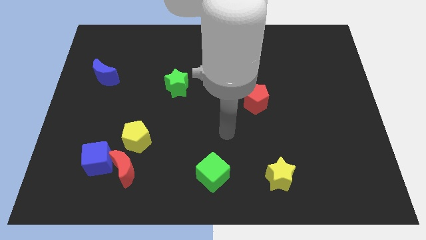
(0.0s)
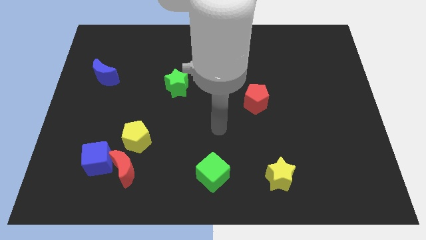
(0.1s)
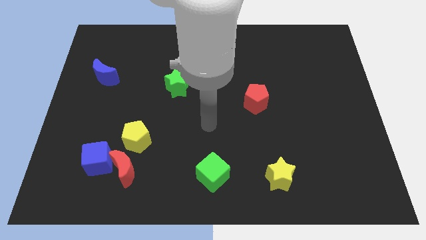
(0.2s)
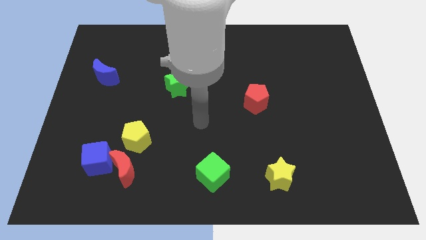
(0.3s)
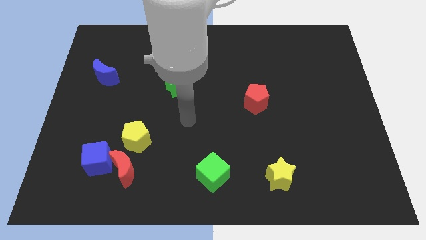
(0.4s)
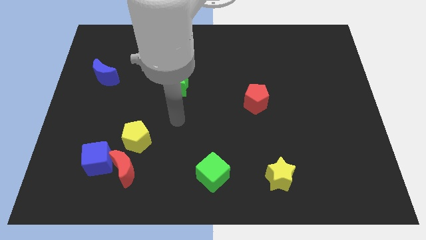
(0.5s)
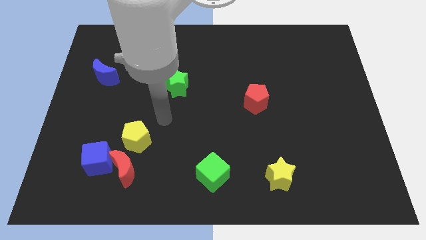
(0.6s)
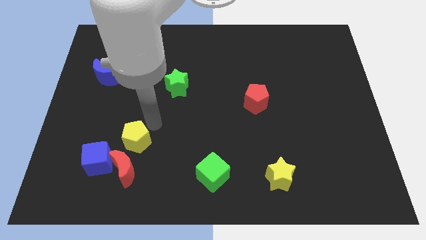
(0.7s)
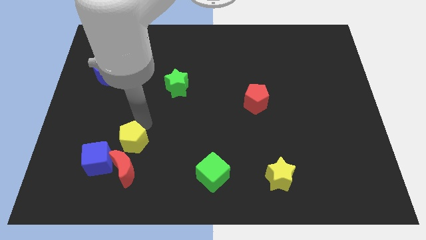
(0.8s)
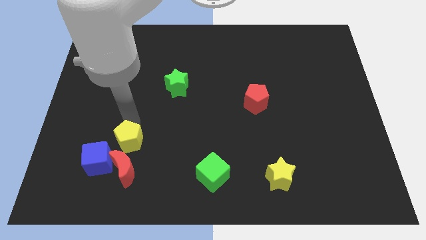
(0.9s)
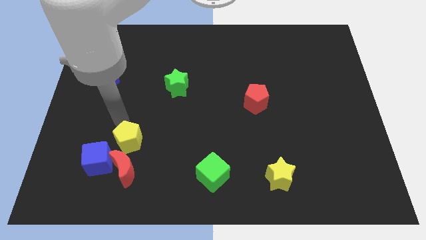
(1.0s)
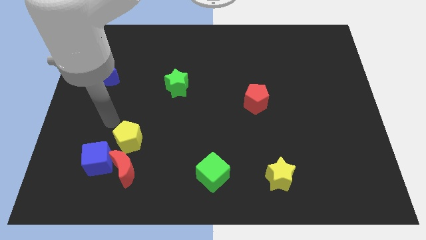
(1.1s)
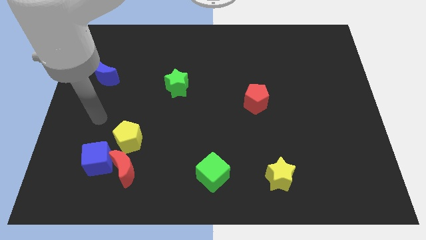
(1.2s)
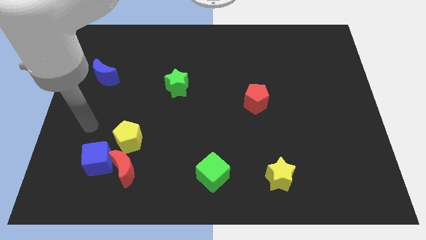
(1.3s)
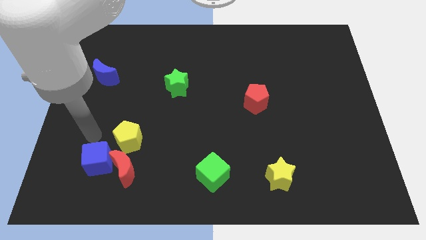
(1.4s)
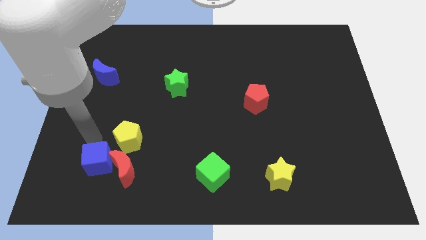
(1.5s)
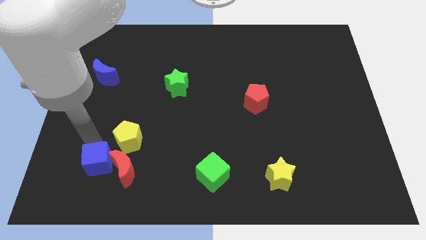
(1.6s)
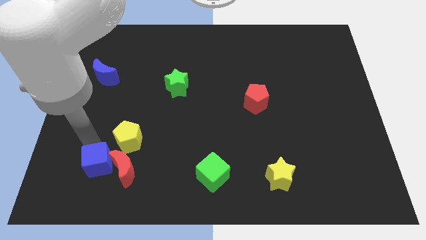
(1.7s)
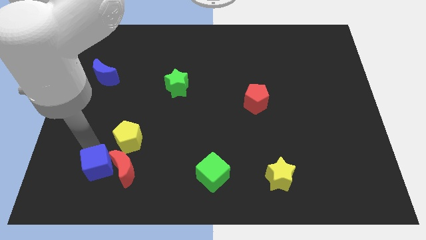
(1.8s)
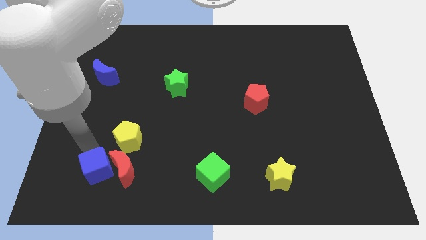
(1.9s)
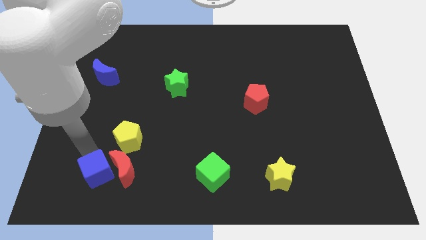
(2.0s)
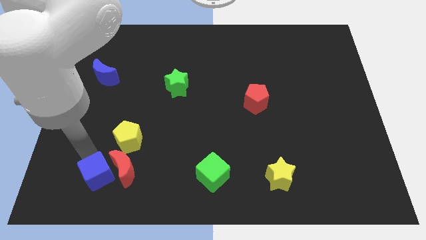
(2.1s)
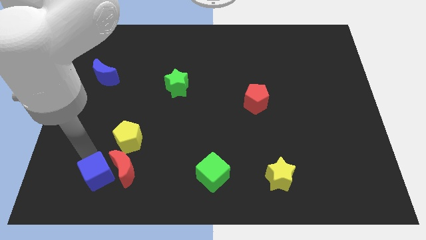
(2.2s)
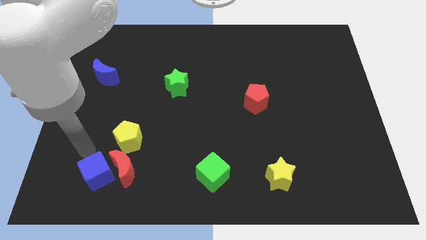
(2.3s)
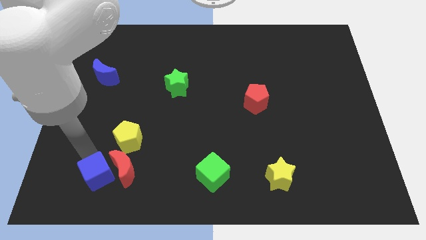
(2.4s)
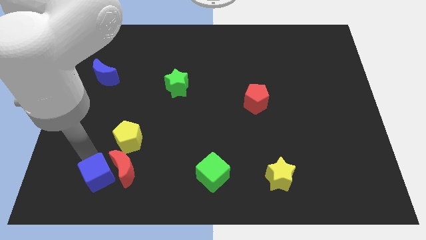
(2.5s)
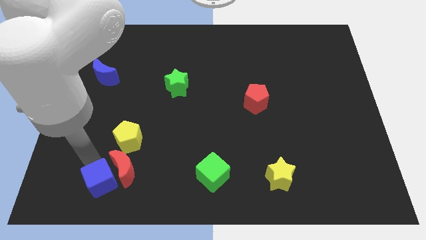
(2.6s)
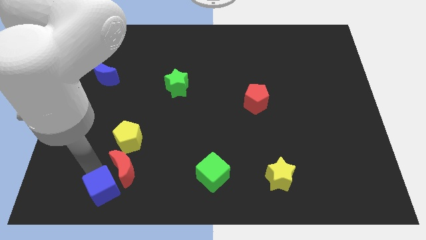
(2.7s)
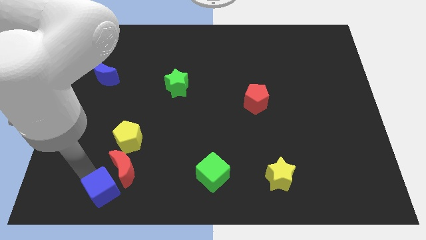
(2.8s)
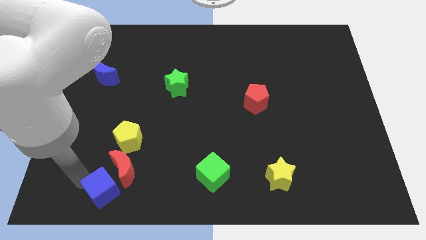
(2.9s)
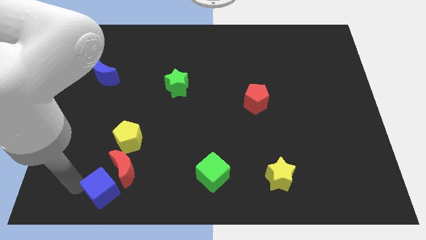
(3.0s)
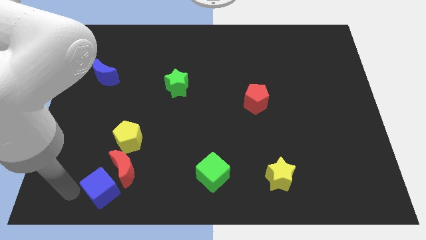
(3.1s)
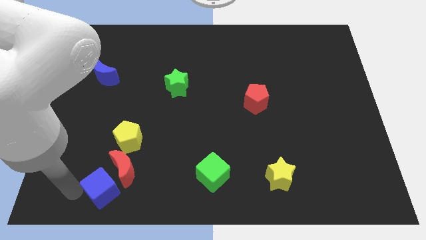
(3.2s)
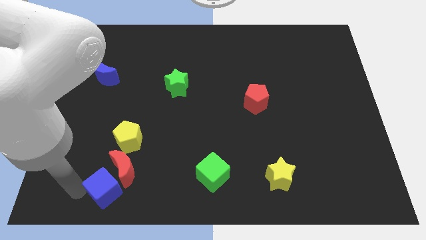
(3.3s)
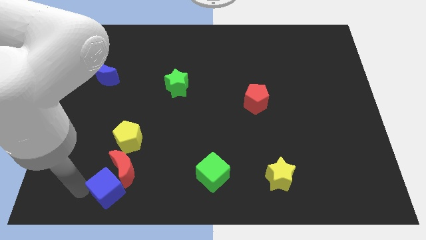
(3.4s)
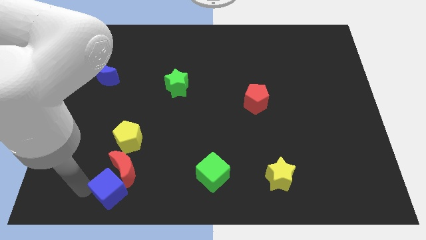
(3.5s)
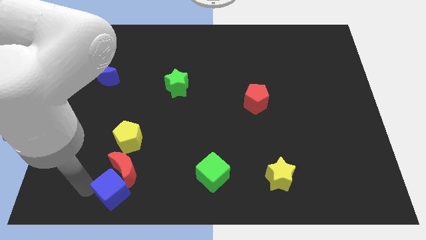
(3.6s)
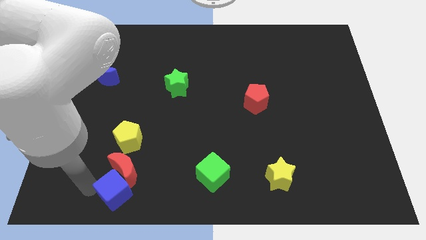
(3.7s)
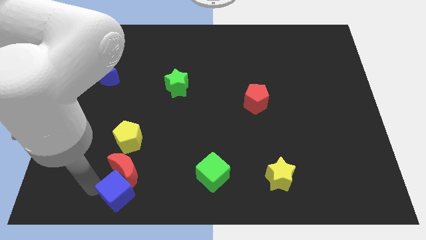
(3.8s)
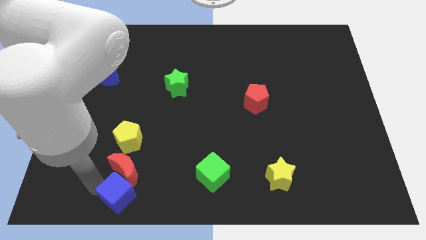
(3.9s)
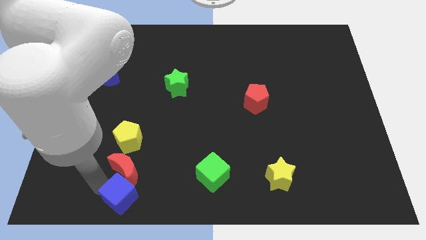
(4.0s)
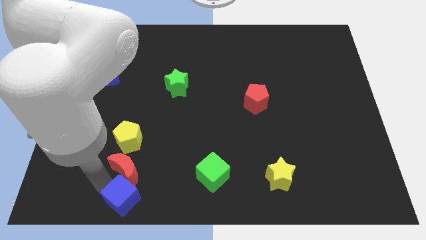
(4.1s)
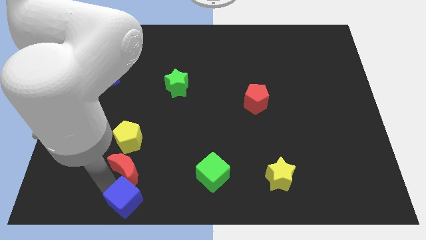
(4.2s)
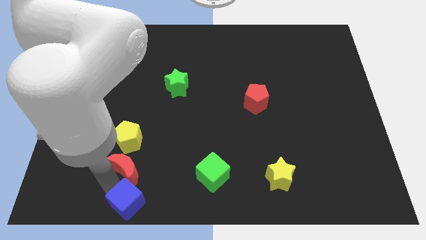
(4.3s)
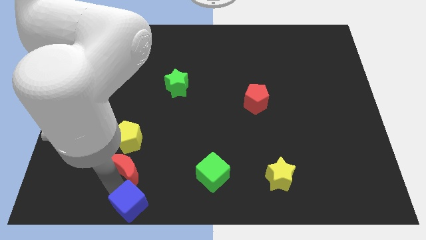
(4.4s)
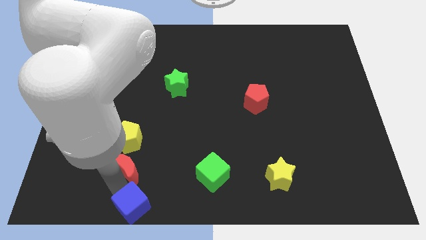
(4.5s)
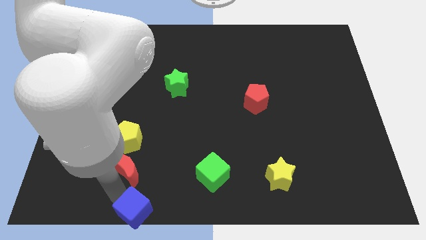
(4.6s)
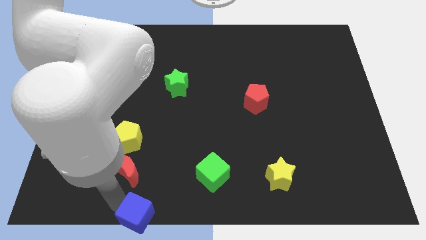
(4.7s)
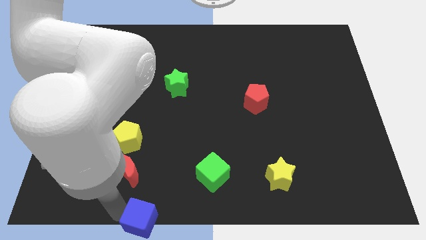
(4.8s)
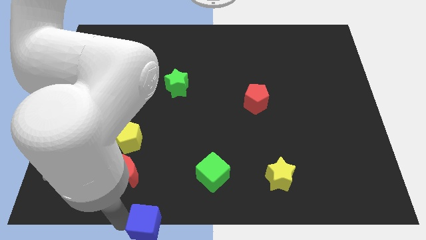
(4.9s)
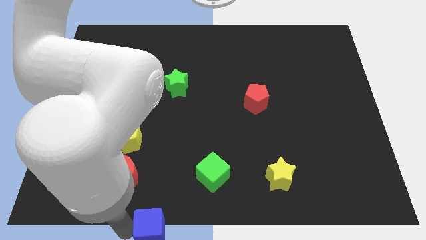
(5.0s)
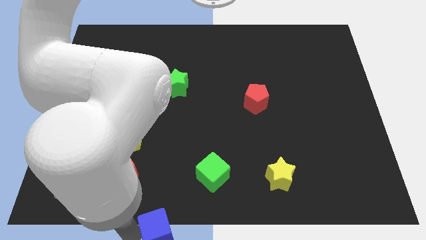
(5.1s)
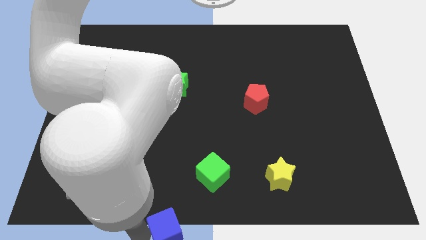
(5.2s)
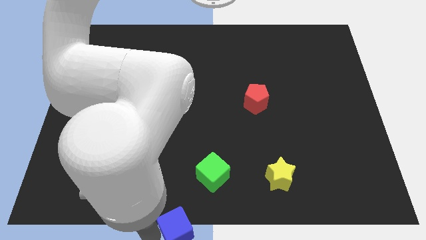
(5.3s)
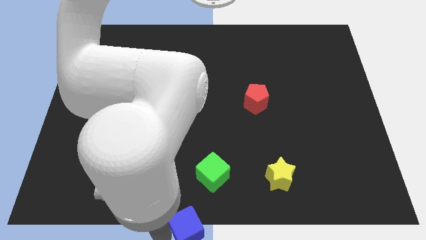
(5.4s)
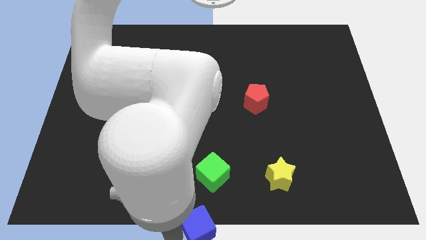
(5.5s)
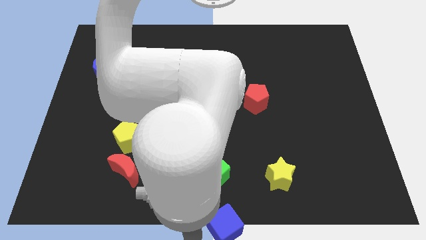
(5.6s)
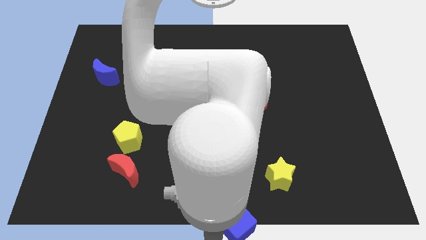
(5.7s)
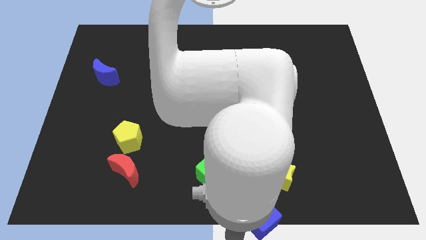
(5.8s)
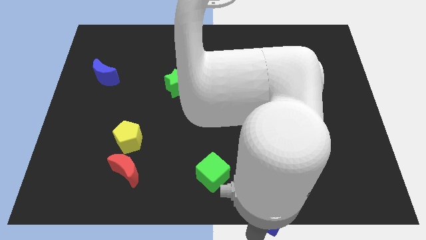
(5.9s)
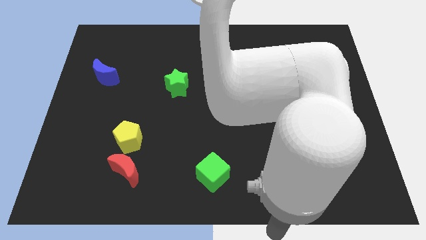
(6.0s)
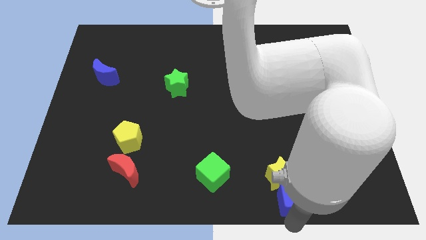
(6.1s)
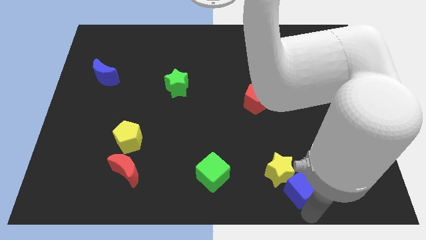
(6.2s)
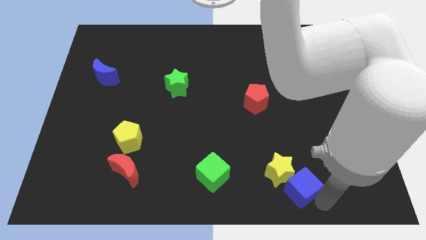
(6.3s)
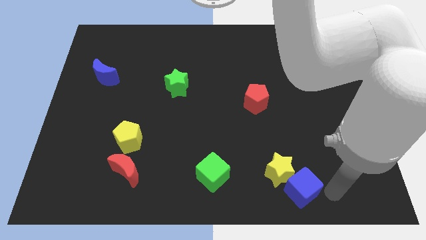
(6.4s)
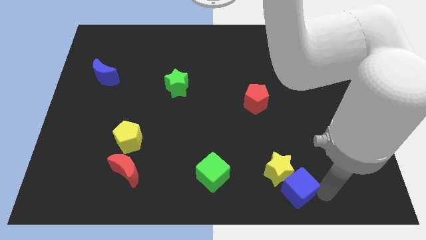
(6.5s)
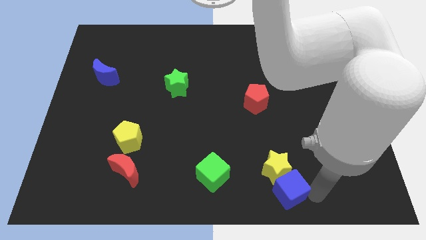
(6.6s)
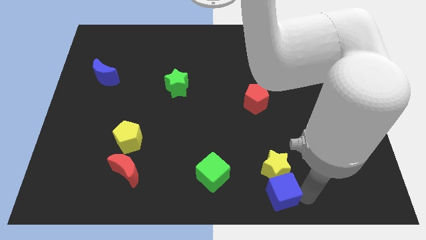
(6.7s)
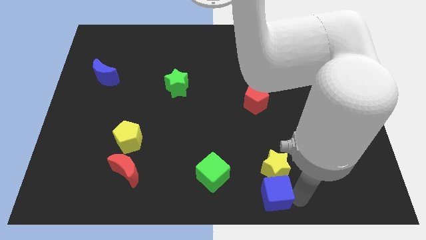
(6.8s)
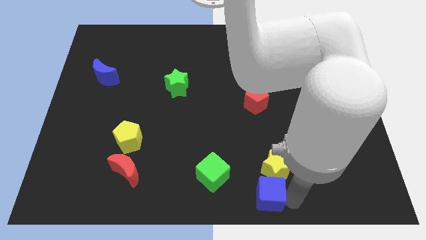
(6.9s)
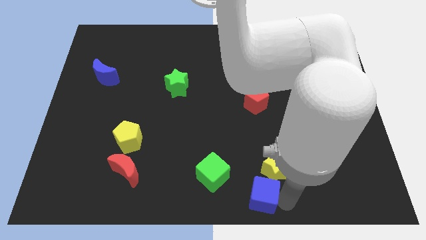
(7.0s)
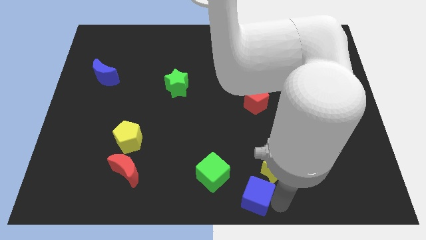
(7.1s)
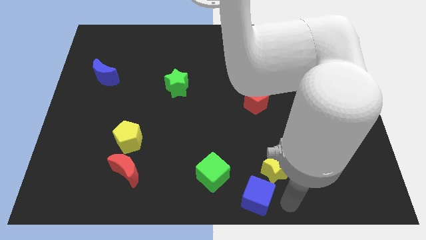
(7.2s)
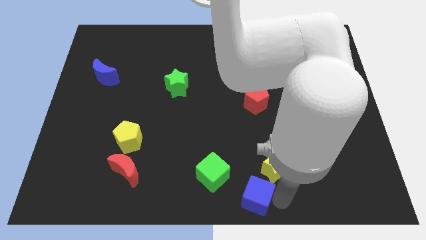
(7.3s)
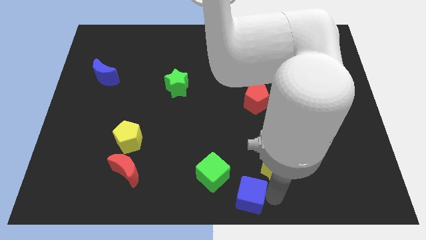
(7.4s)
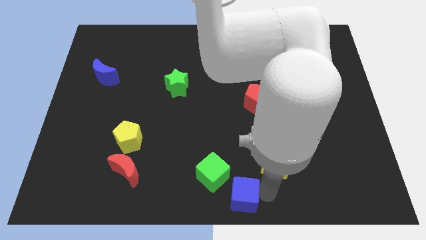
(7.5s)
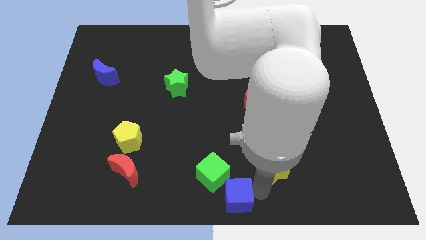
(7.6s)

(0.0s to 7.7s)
push the blue cube to the right a little
